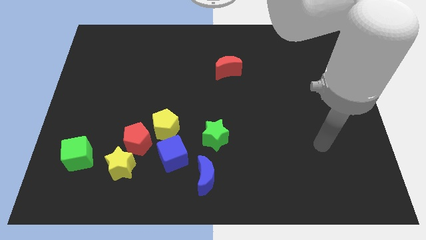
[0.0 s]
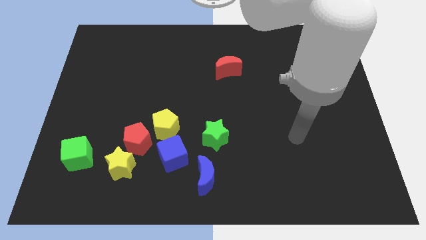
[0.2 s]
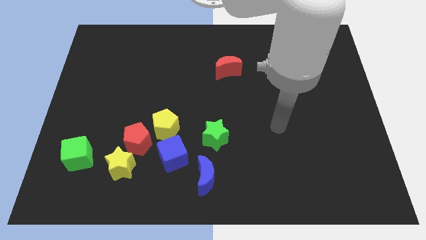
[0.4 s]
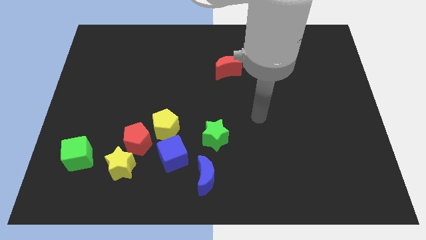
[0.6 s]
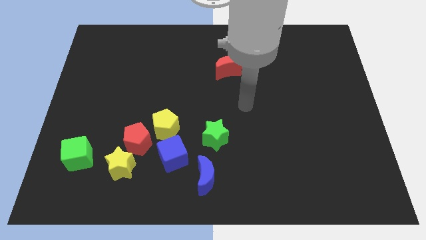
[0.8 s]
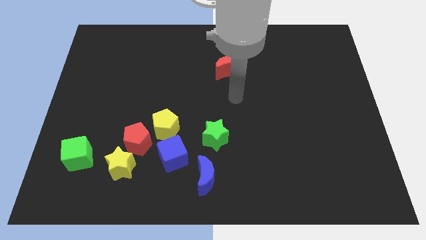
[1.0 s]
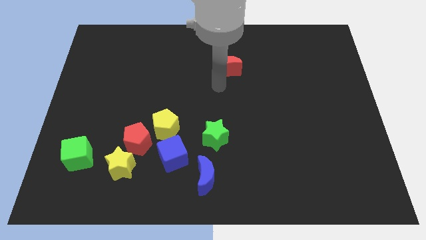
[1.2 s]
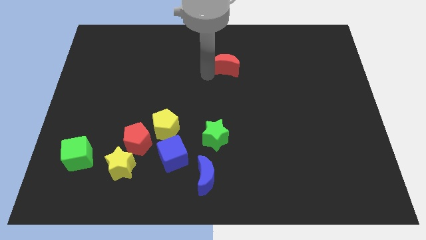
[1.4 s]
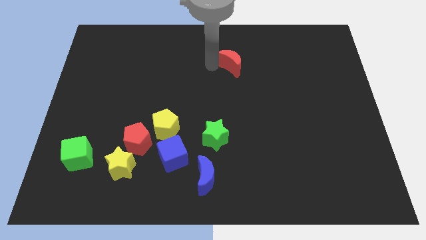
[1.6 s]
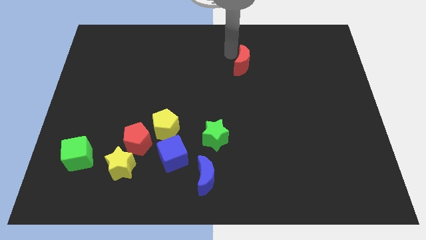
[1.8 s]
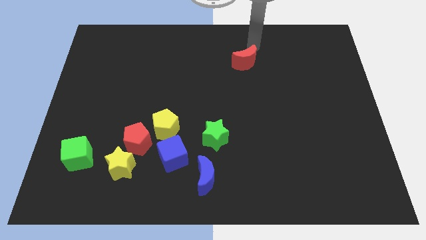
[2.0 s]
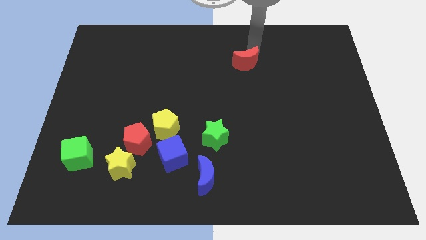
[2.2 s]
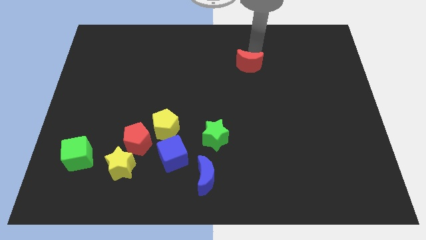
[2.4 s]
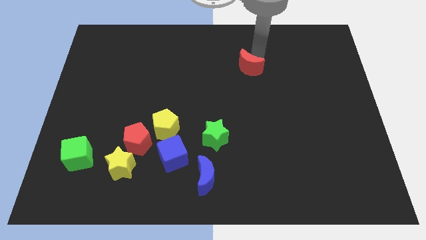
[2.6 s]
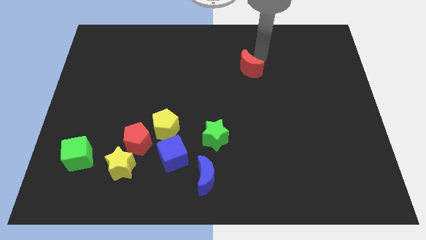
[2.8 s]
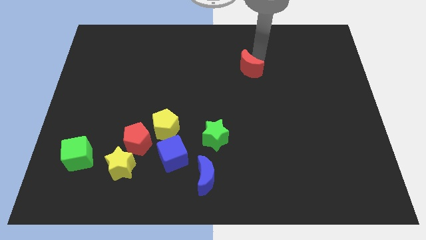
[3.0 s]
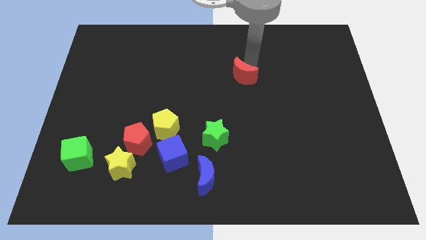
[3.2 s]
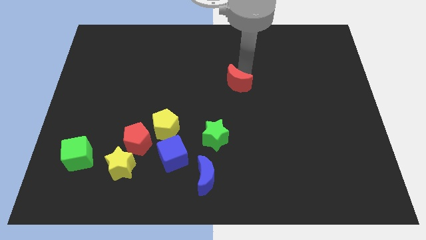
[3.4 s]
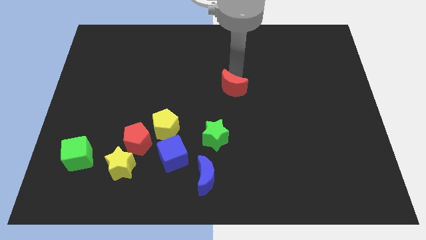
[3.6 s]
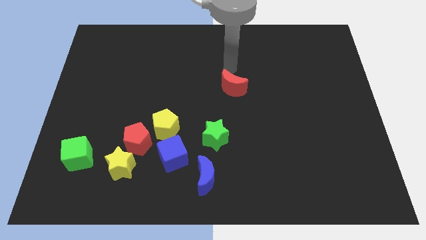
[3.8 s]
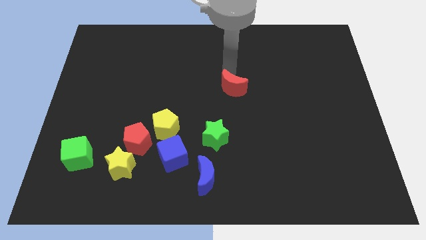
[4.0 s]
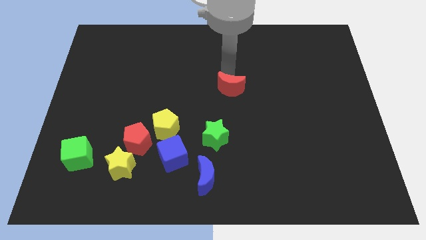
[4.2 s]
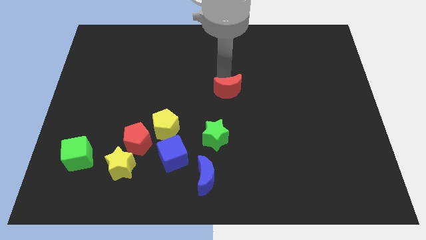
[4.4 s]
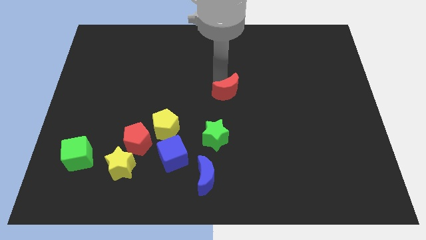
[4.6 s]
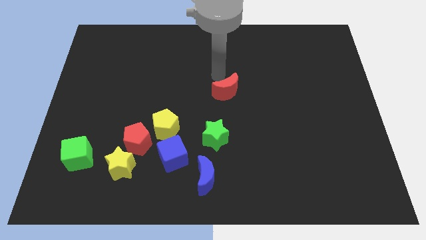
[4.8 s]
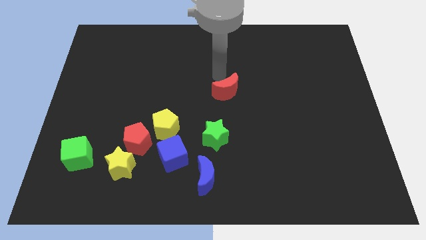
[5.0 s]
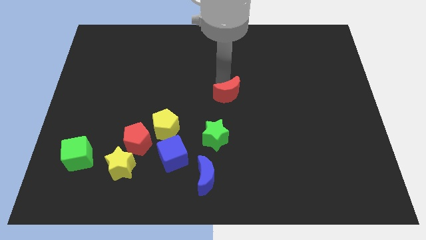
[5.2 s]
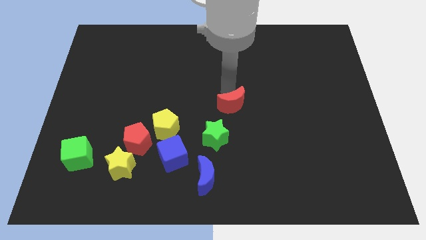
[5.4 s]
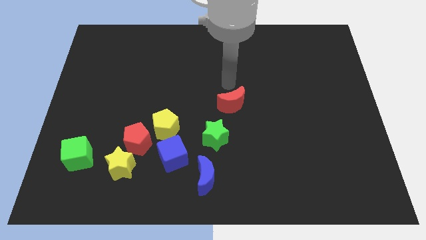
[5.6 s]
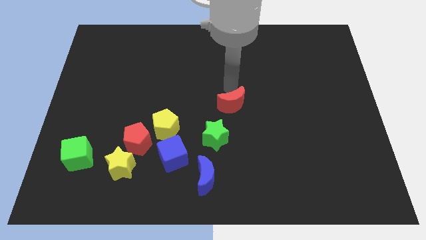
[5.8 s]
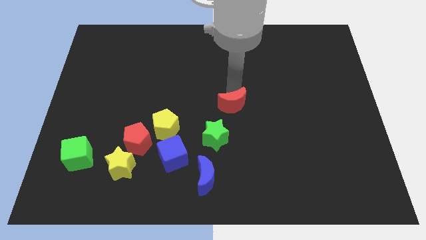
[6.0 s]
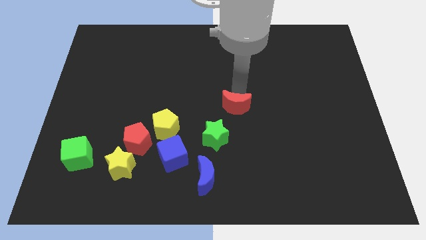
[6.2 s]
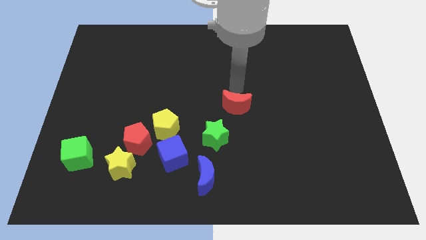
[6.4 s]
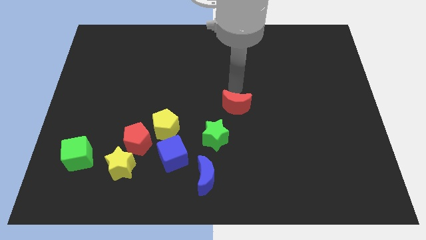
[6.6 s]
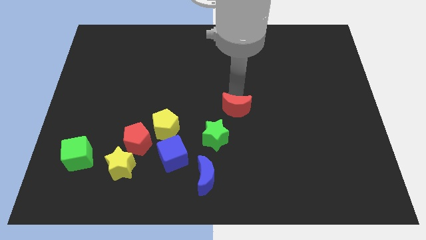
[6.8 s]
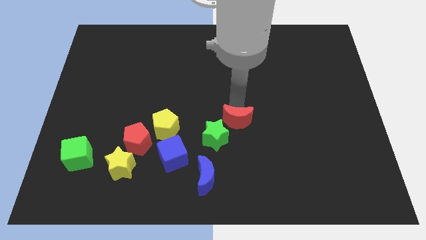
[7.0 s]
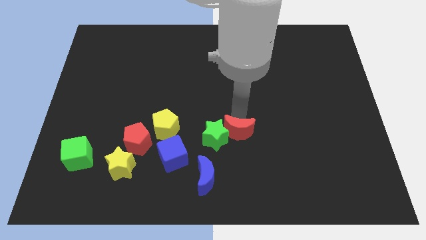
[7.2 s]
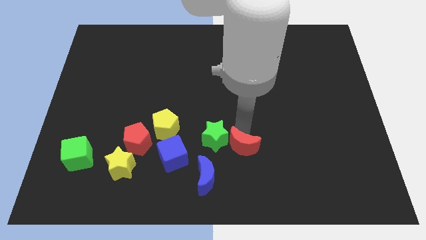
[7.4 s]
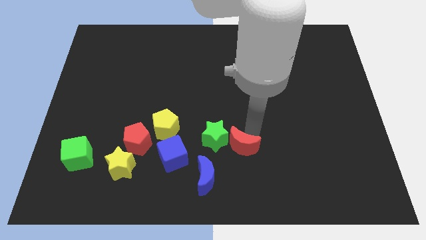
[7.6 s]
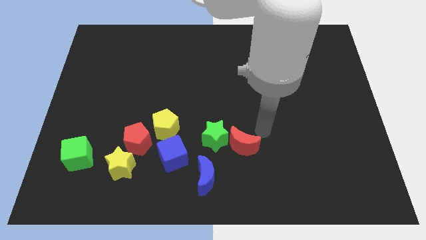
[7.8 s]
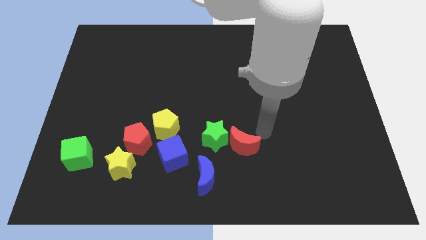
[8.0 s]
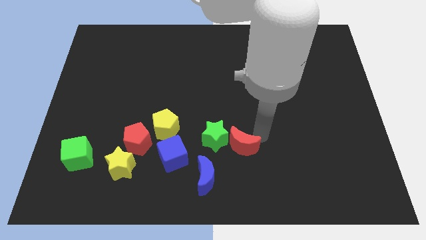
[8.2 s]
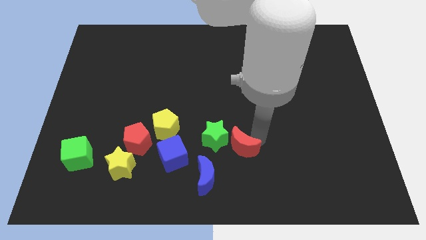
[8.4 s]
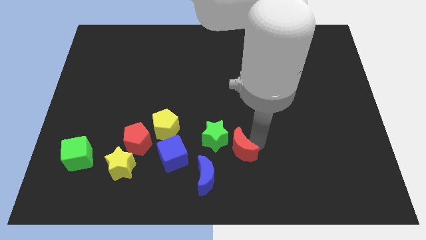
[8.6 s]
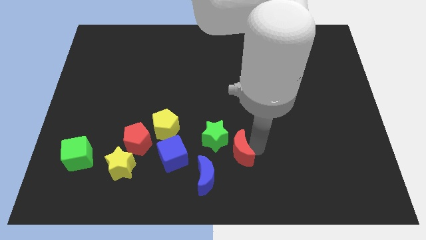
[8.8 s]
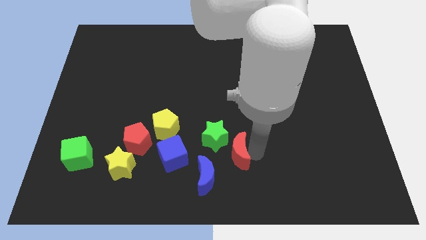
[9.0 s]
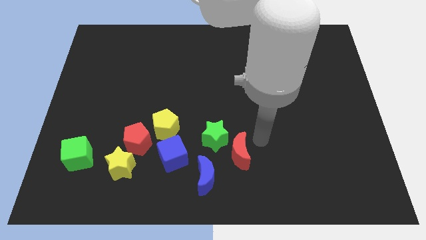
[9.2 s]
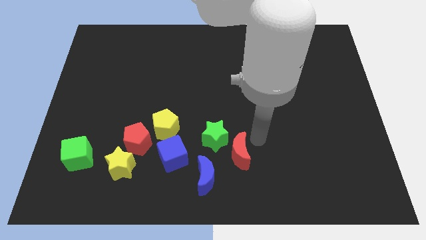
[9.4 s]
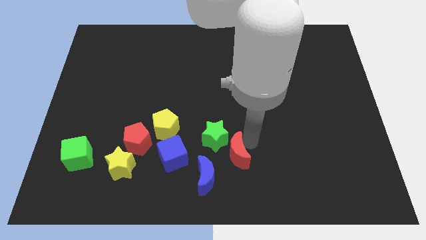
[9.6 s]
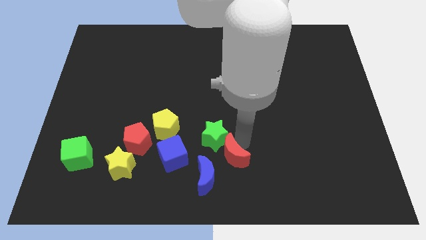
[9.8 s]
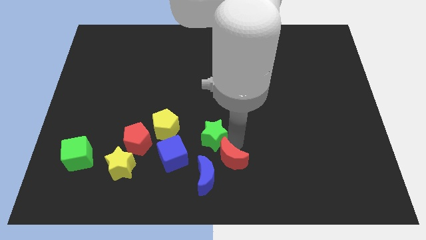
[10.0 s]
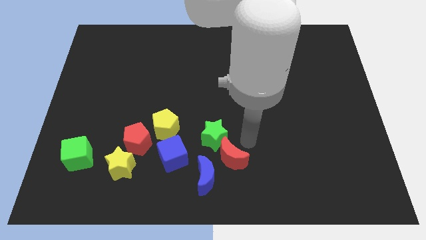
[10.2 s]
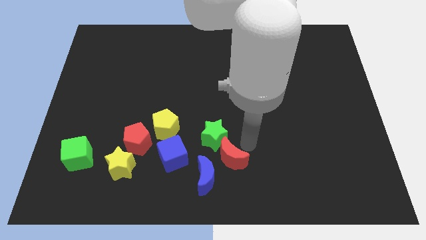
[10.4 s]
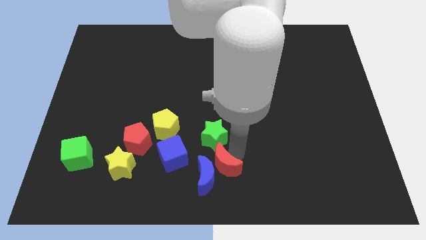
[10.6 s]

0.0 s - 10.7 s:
slide the red moon to the blue moon

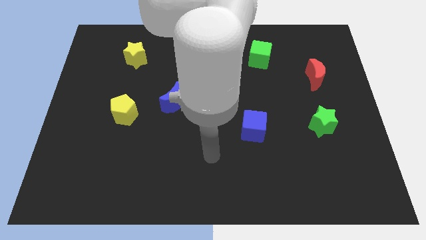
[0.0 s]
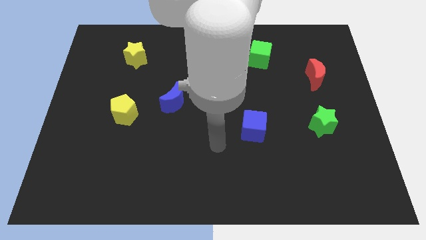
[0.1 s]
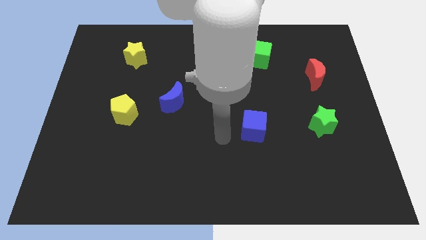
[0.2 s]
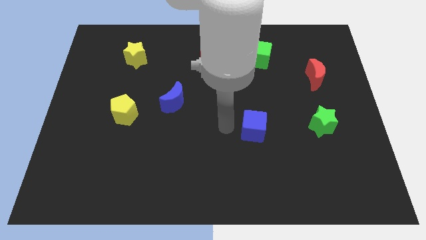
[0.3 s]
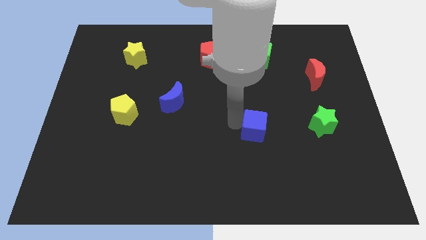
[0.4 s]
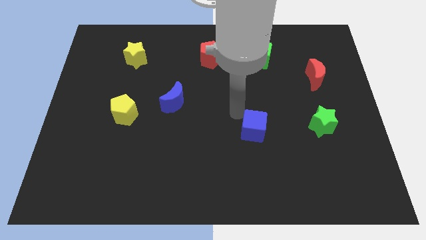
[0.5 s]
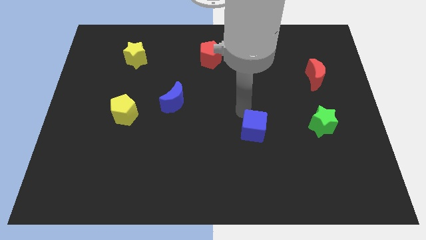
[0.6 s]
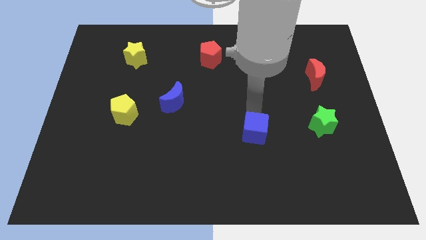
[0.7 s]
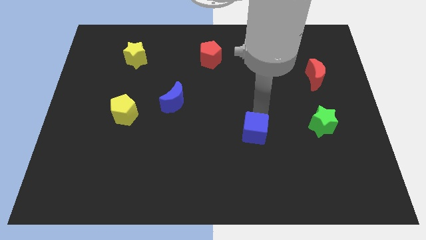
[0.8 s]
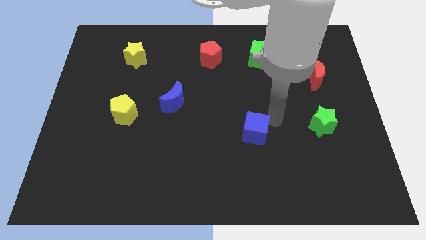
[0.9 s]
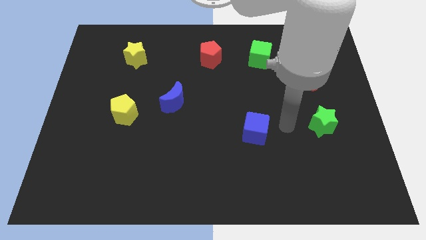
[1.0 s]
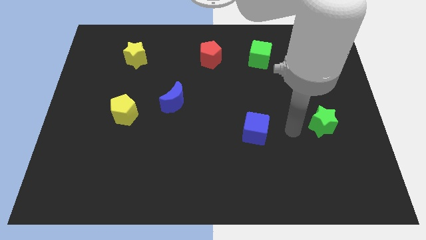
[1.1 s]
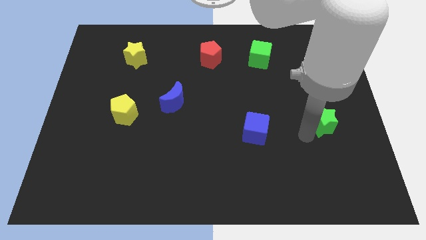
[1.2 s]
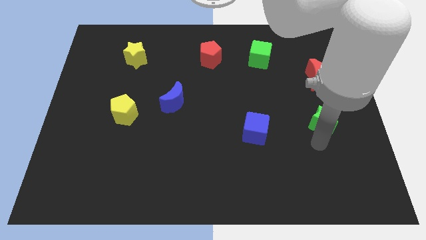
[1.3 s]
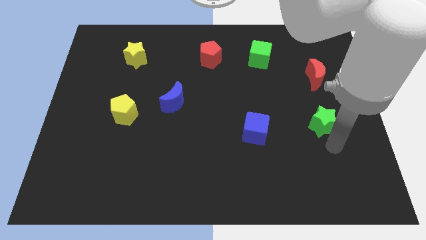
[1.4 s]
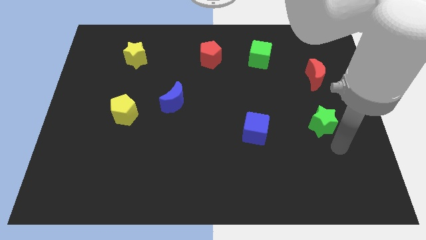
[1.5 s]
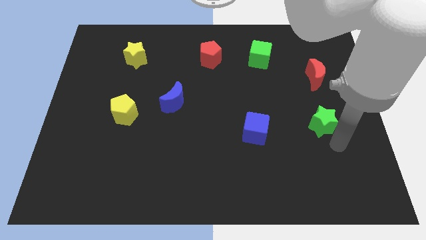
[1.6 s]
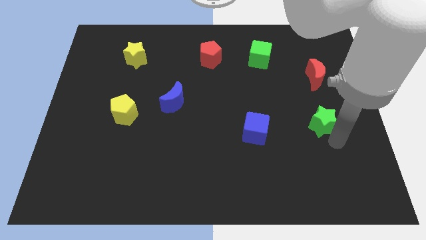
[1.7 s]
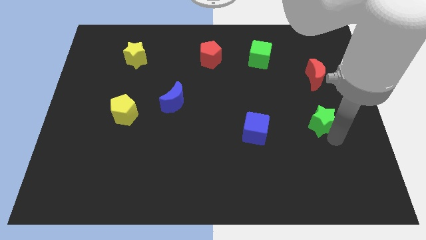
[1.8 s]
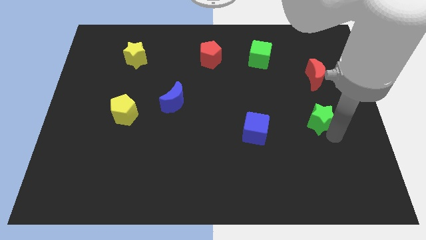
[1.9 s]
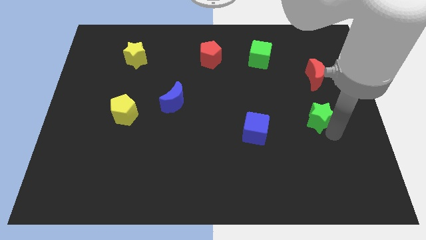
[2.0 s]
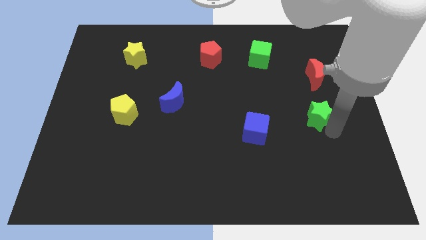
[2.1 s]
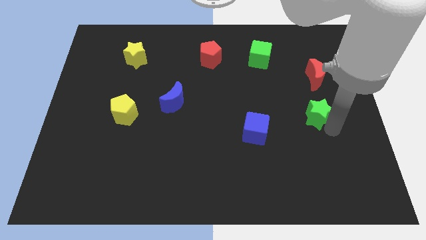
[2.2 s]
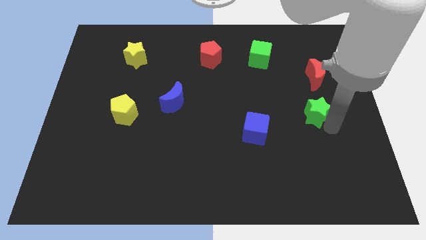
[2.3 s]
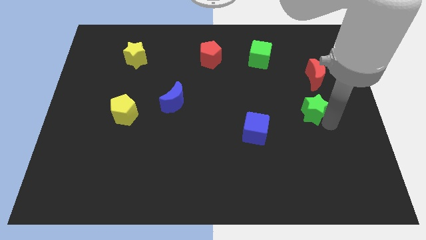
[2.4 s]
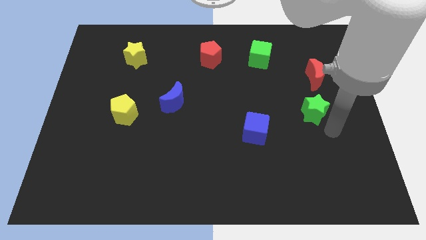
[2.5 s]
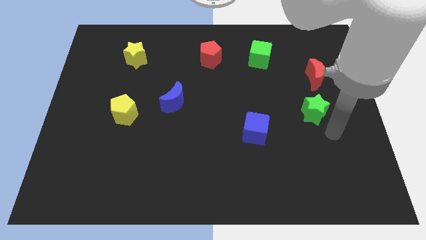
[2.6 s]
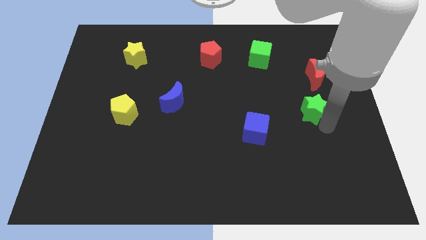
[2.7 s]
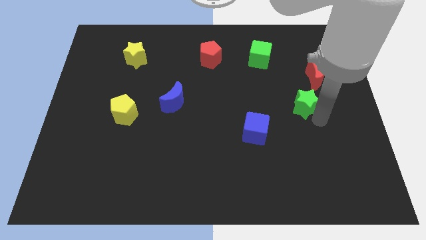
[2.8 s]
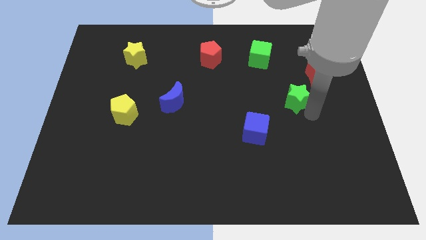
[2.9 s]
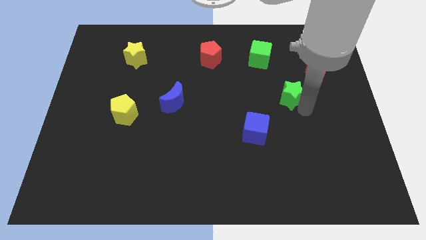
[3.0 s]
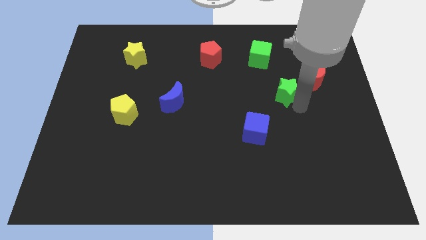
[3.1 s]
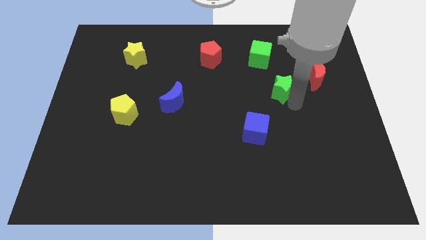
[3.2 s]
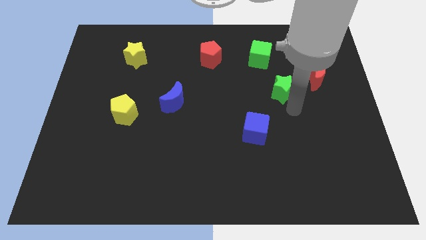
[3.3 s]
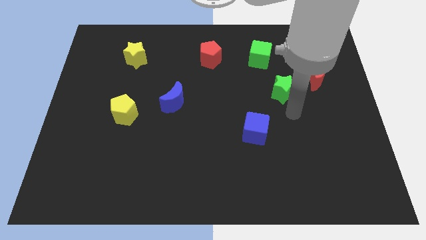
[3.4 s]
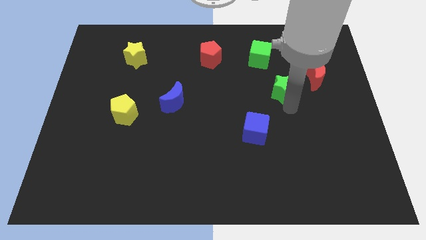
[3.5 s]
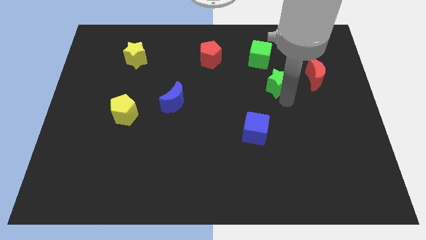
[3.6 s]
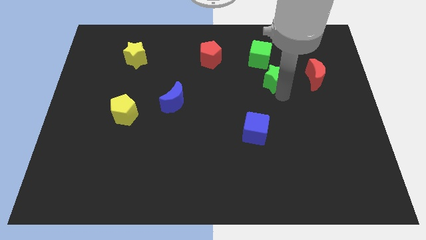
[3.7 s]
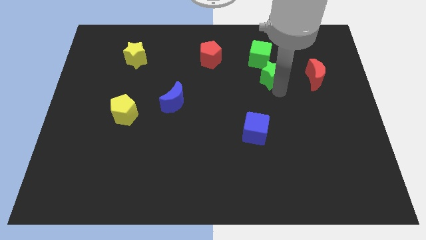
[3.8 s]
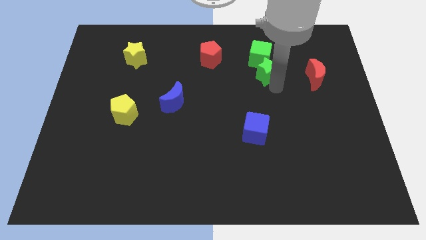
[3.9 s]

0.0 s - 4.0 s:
slide the green star next to the green cube
